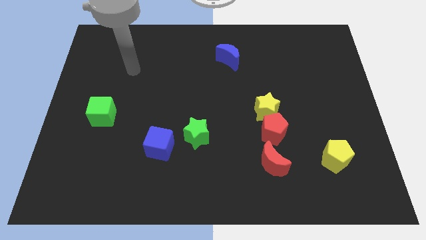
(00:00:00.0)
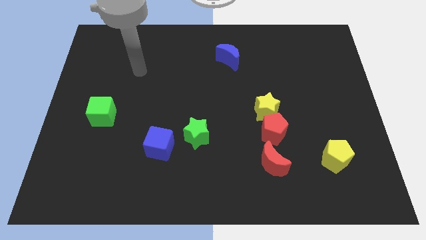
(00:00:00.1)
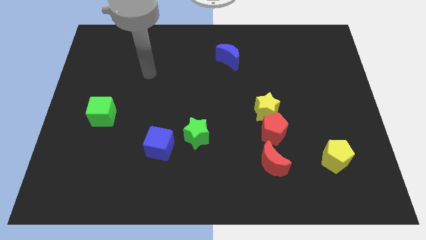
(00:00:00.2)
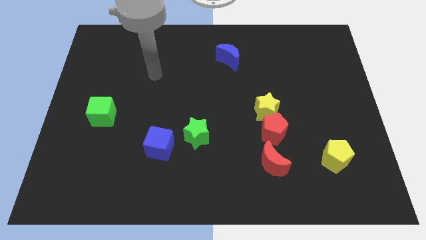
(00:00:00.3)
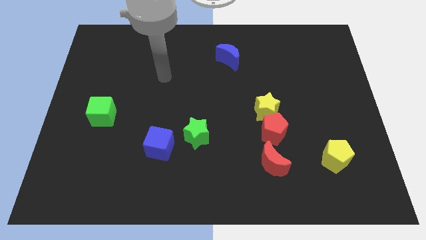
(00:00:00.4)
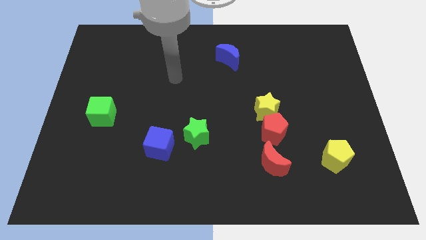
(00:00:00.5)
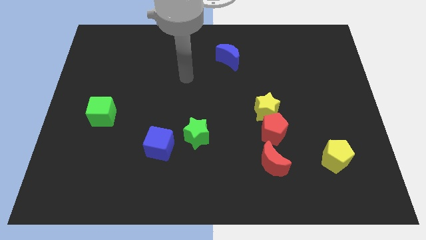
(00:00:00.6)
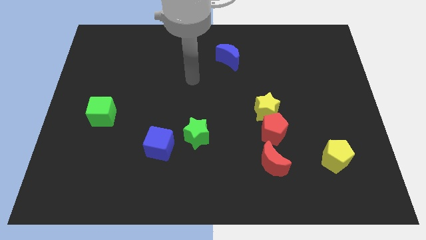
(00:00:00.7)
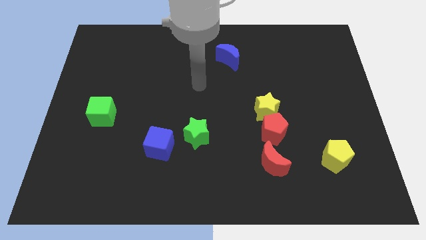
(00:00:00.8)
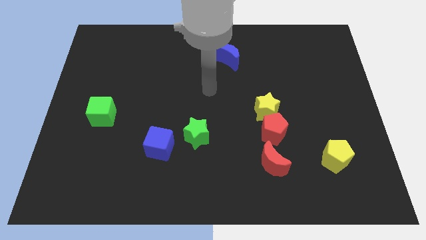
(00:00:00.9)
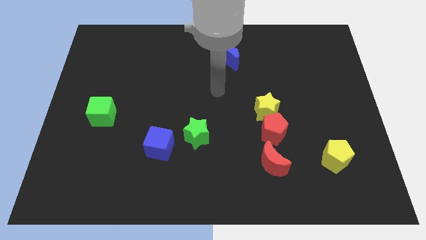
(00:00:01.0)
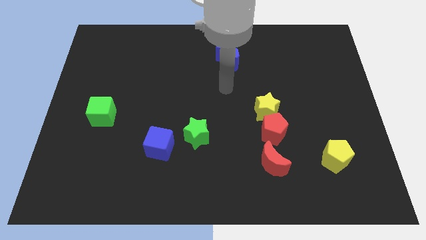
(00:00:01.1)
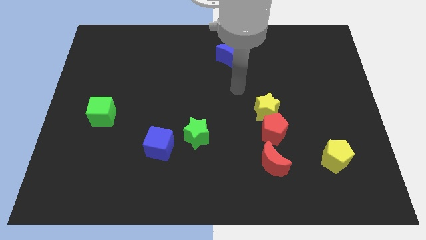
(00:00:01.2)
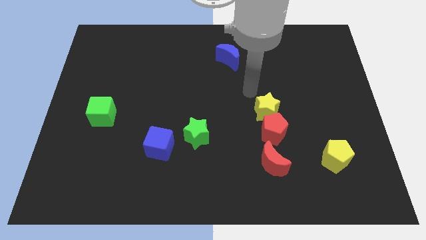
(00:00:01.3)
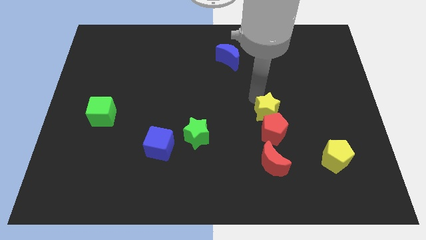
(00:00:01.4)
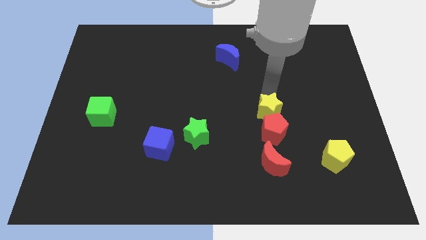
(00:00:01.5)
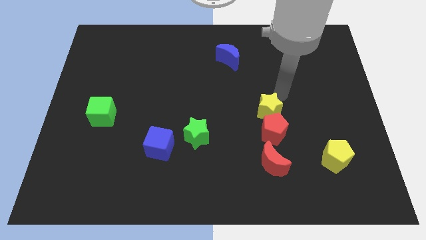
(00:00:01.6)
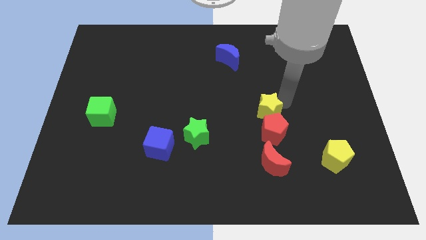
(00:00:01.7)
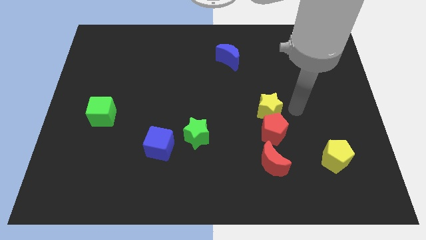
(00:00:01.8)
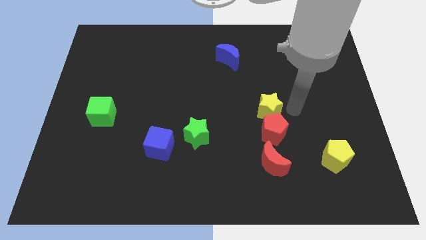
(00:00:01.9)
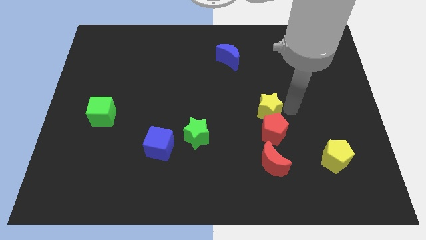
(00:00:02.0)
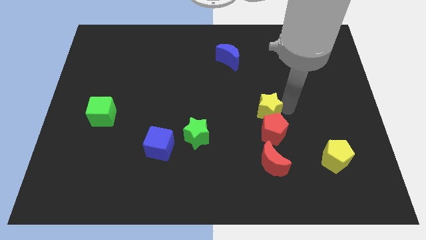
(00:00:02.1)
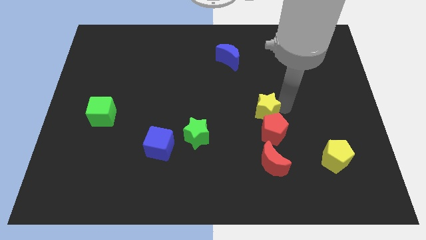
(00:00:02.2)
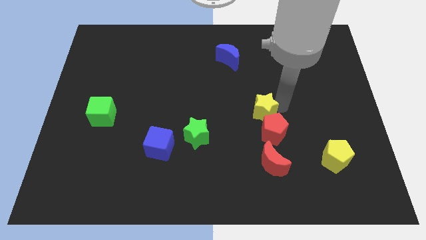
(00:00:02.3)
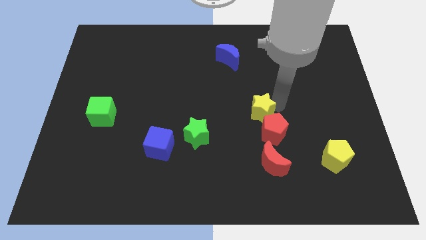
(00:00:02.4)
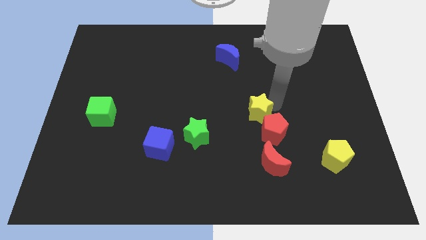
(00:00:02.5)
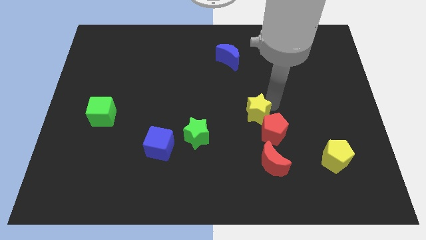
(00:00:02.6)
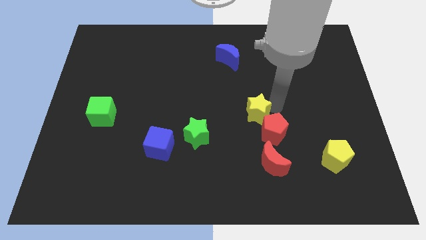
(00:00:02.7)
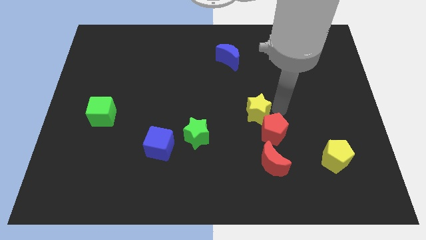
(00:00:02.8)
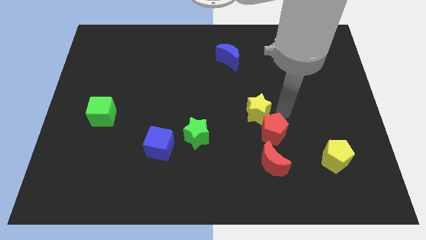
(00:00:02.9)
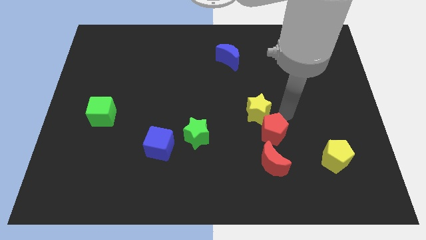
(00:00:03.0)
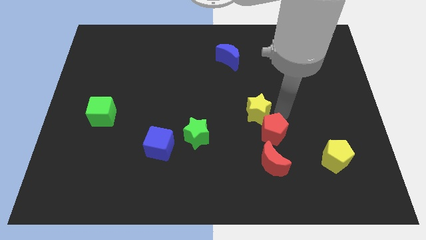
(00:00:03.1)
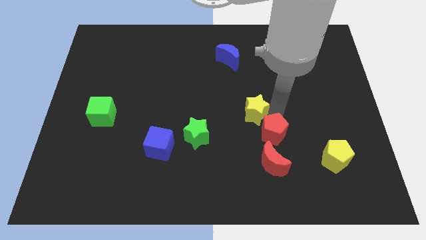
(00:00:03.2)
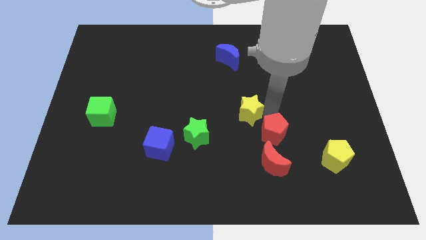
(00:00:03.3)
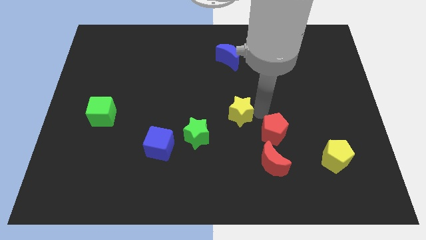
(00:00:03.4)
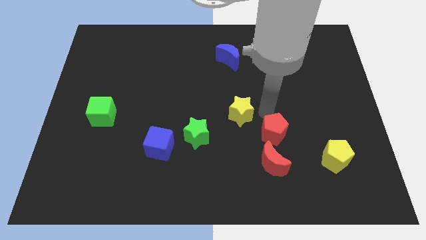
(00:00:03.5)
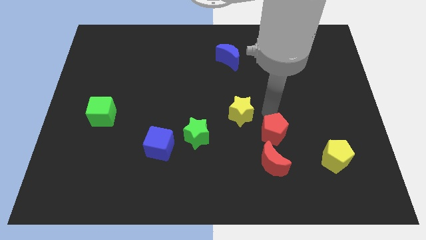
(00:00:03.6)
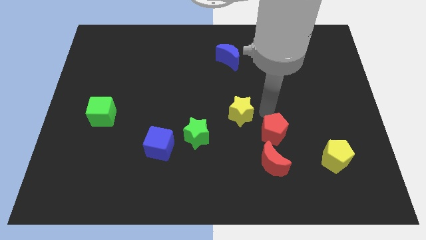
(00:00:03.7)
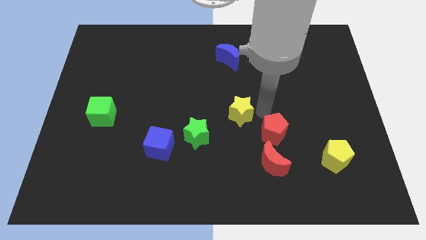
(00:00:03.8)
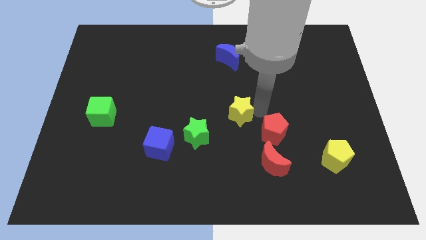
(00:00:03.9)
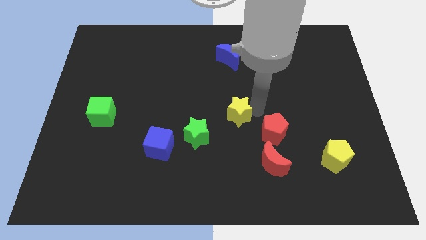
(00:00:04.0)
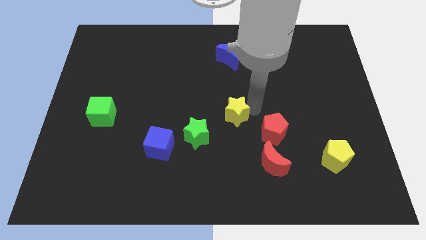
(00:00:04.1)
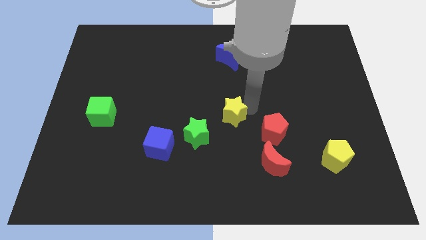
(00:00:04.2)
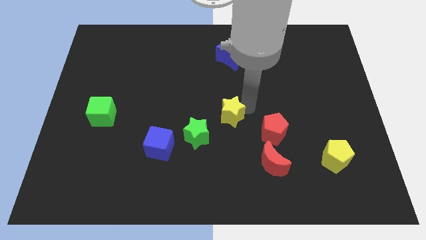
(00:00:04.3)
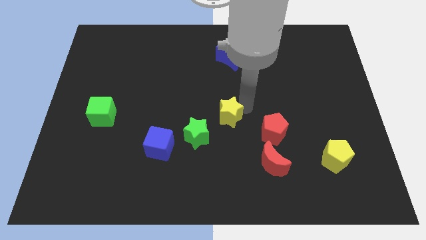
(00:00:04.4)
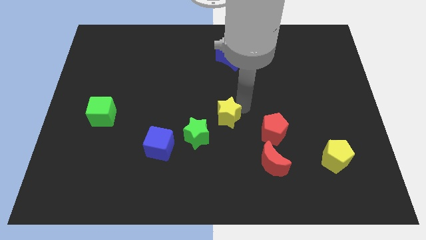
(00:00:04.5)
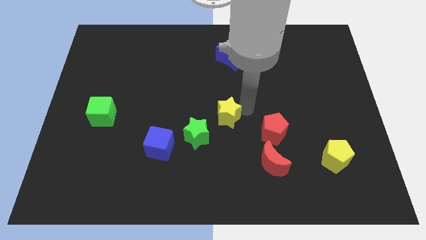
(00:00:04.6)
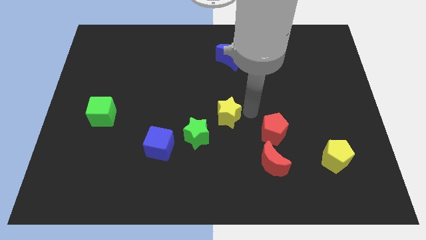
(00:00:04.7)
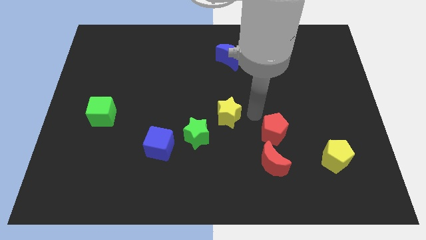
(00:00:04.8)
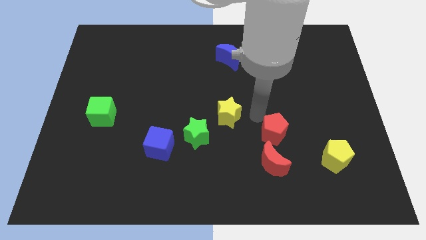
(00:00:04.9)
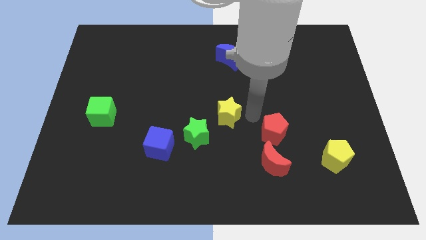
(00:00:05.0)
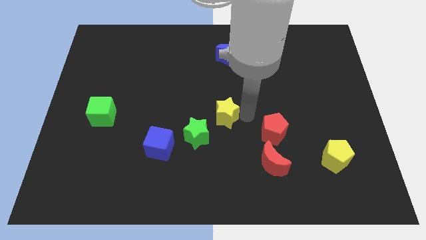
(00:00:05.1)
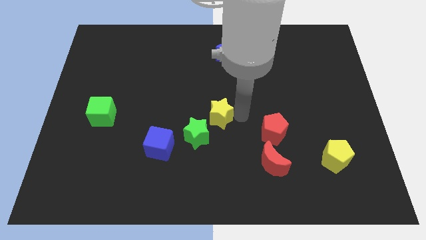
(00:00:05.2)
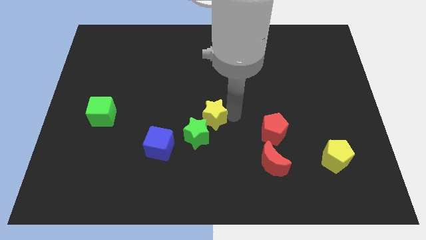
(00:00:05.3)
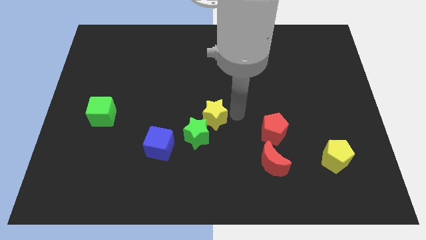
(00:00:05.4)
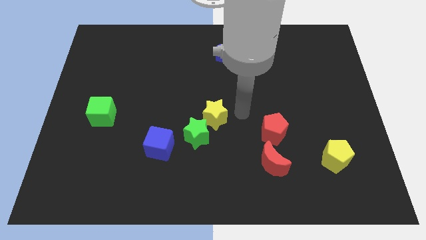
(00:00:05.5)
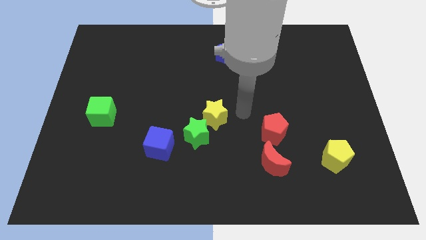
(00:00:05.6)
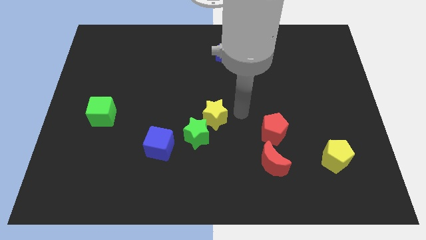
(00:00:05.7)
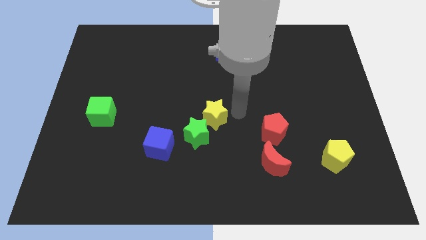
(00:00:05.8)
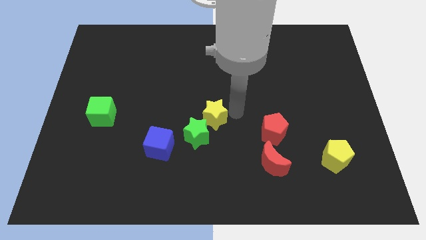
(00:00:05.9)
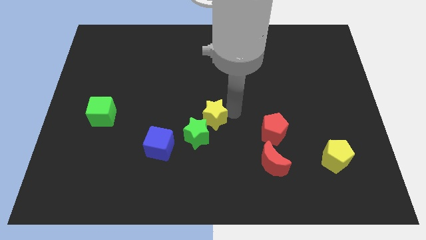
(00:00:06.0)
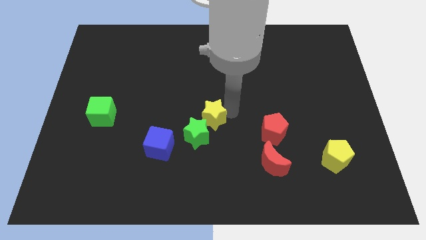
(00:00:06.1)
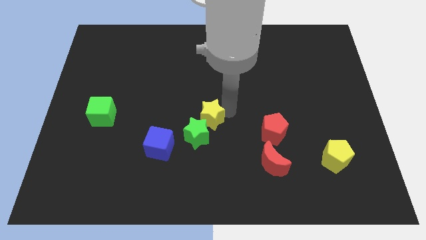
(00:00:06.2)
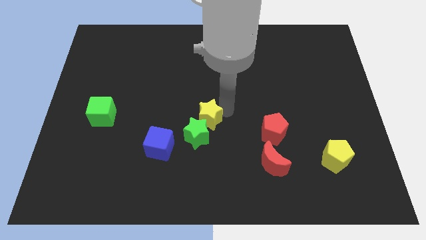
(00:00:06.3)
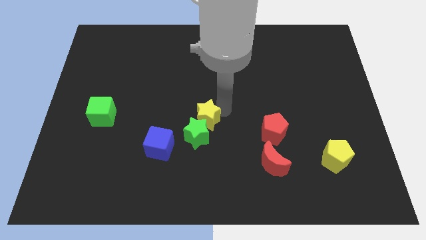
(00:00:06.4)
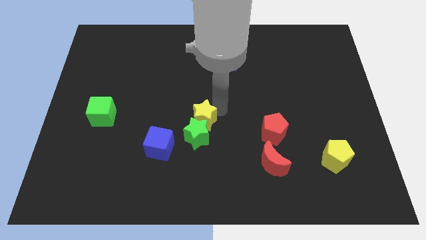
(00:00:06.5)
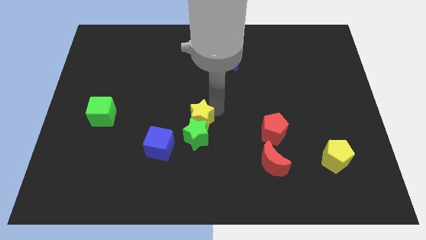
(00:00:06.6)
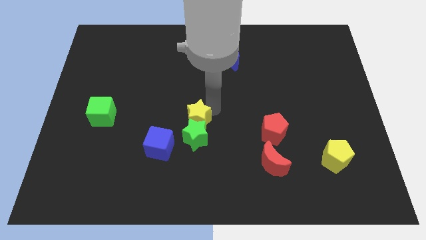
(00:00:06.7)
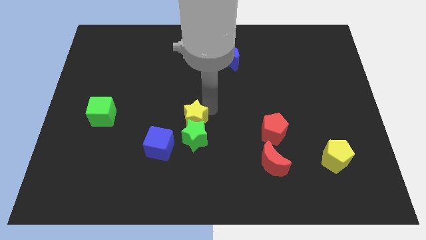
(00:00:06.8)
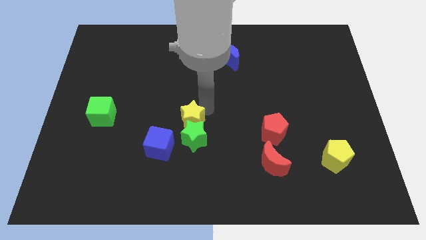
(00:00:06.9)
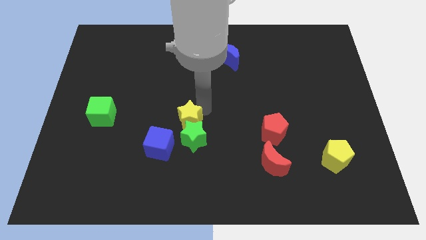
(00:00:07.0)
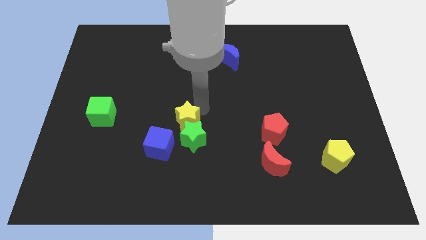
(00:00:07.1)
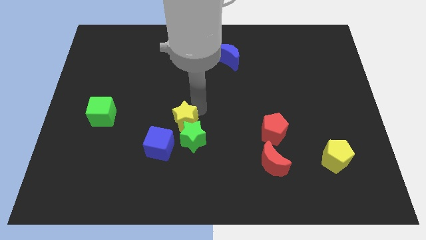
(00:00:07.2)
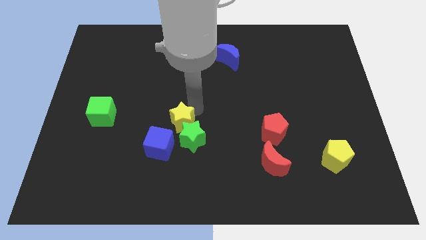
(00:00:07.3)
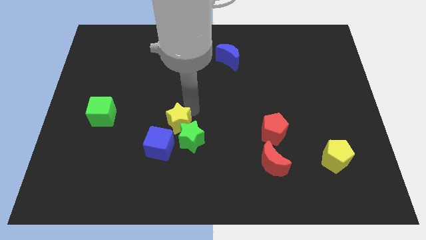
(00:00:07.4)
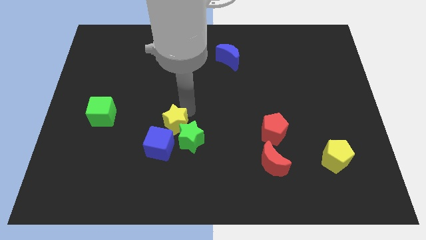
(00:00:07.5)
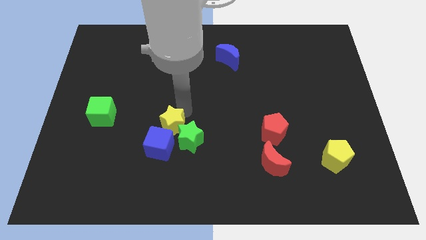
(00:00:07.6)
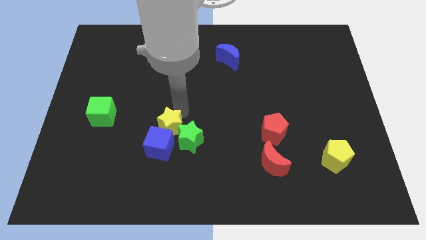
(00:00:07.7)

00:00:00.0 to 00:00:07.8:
put the yellow star towards the blue cube

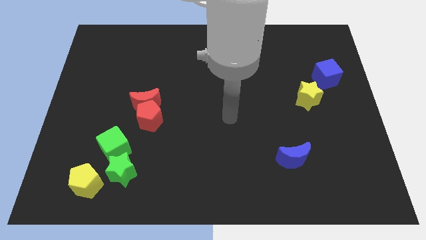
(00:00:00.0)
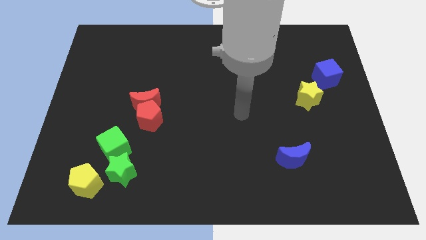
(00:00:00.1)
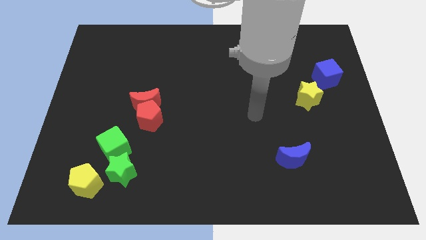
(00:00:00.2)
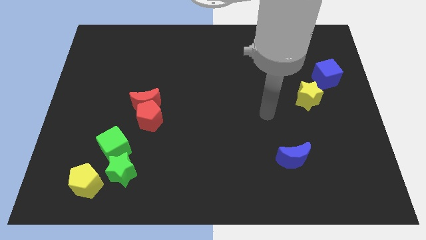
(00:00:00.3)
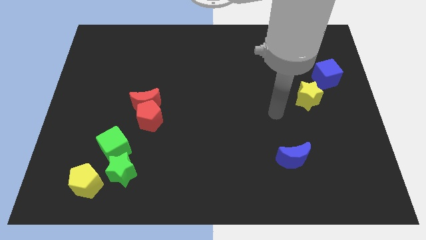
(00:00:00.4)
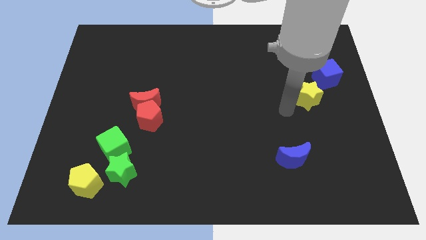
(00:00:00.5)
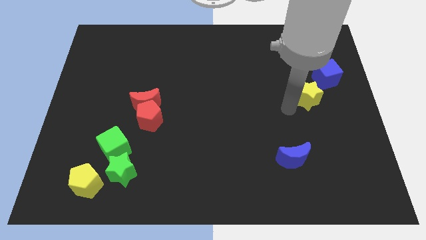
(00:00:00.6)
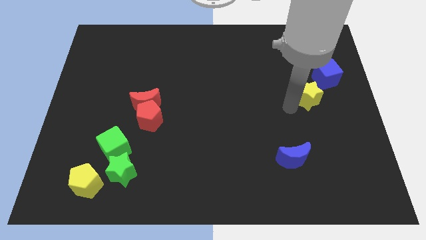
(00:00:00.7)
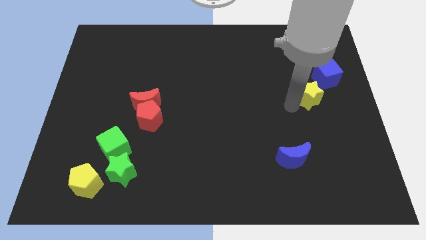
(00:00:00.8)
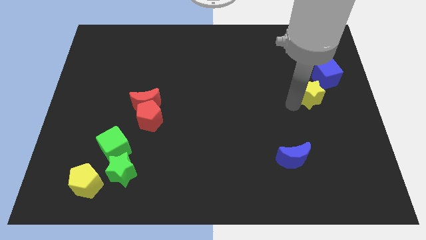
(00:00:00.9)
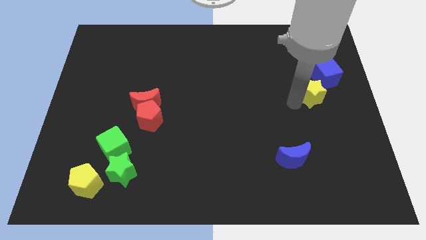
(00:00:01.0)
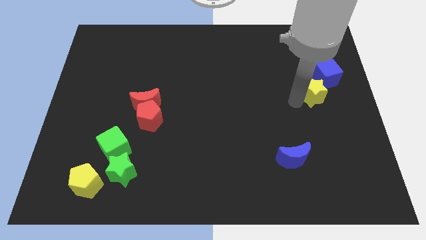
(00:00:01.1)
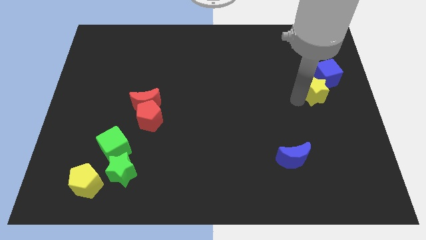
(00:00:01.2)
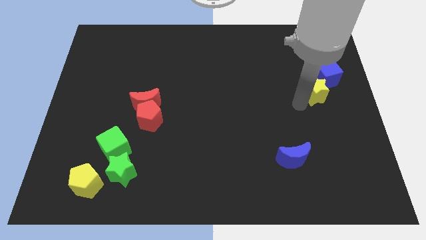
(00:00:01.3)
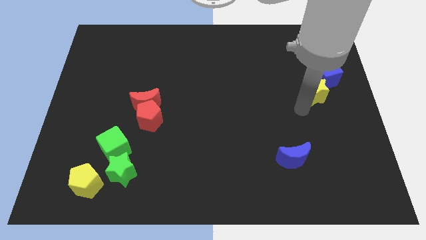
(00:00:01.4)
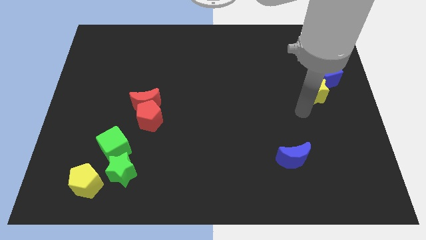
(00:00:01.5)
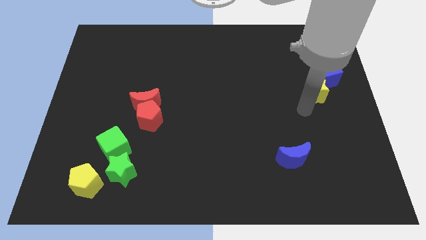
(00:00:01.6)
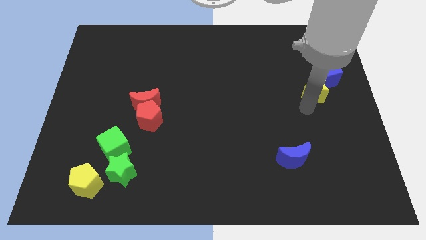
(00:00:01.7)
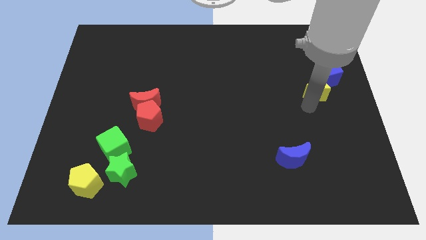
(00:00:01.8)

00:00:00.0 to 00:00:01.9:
move the yellow star next to the blue cube
